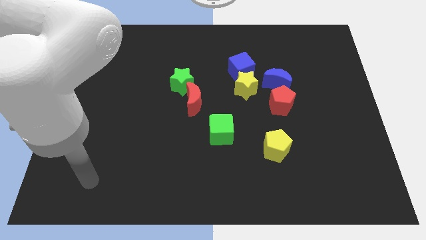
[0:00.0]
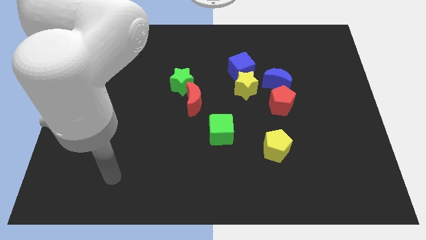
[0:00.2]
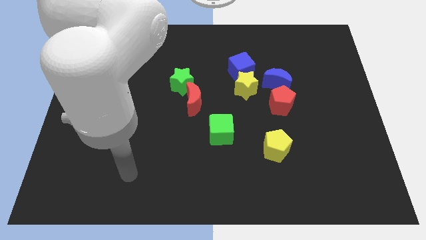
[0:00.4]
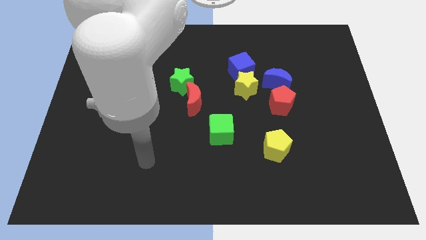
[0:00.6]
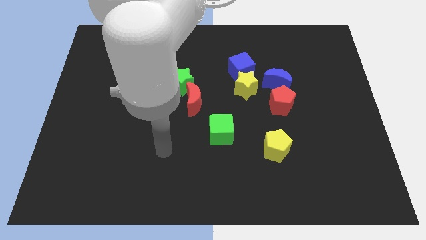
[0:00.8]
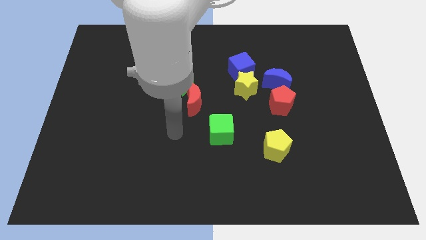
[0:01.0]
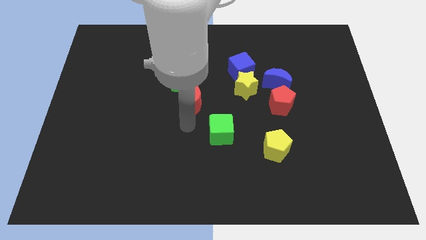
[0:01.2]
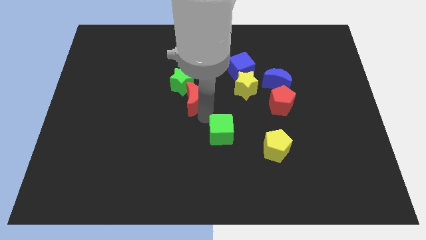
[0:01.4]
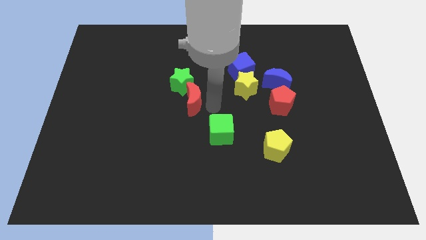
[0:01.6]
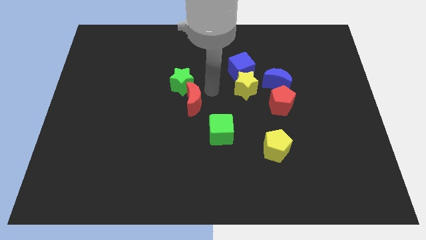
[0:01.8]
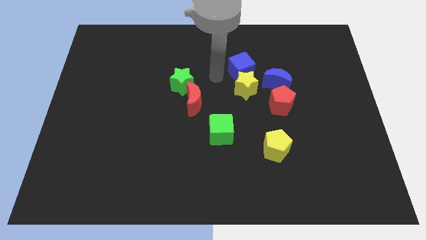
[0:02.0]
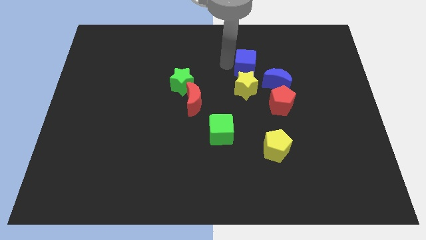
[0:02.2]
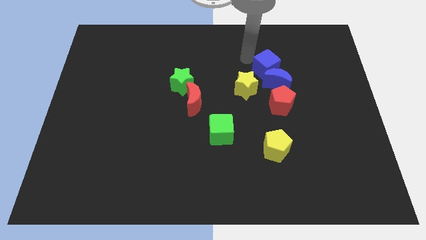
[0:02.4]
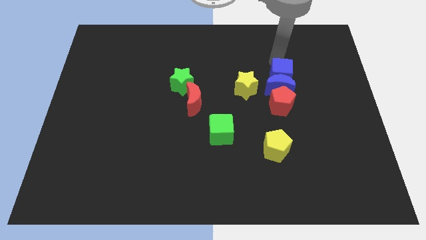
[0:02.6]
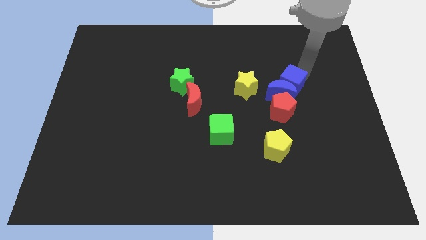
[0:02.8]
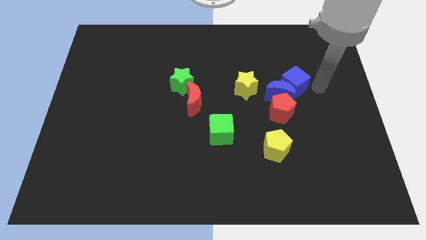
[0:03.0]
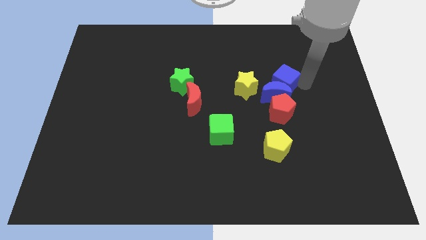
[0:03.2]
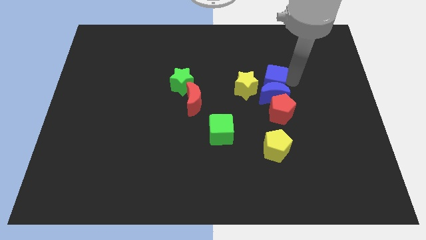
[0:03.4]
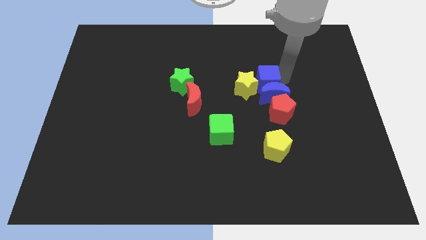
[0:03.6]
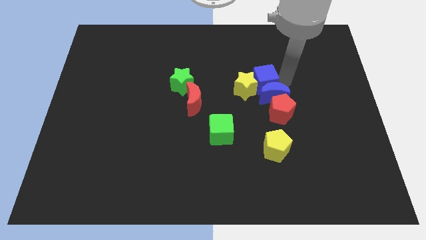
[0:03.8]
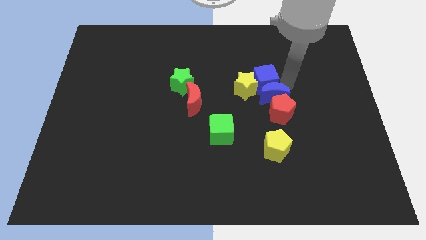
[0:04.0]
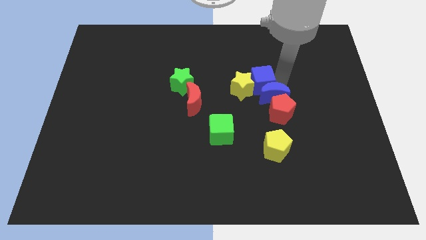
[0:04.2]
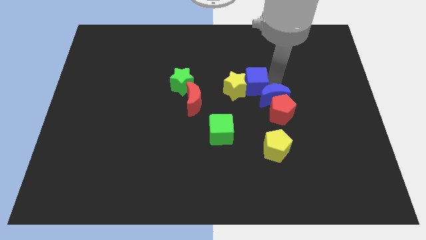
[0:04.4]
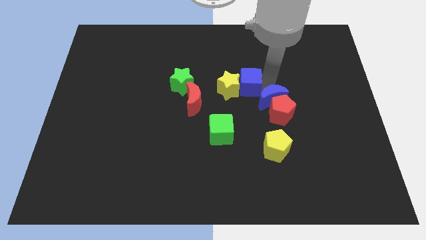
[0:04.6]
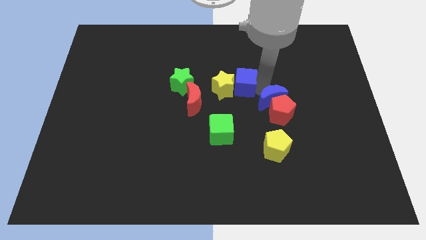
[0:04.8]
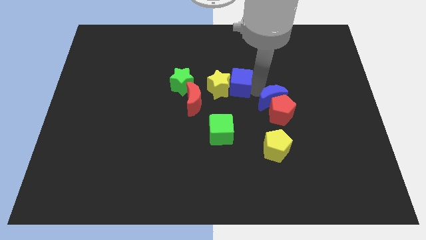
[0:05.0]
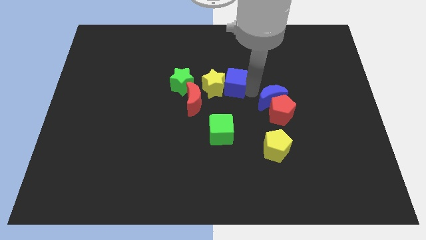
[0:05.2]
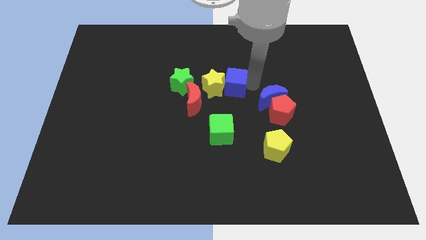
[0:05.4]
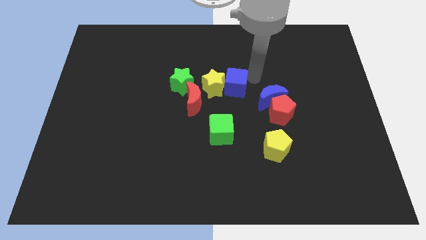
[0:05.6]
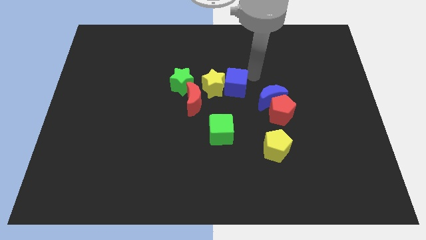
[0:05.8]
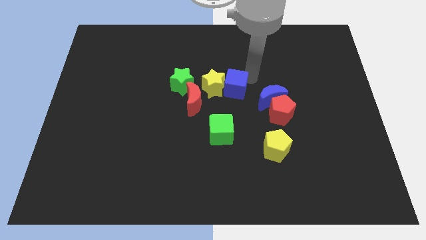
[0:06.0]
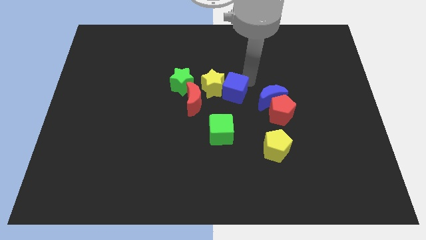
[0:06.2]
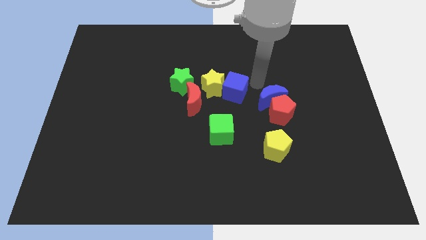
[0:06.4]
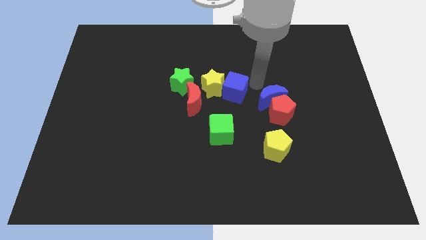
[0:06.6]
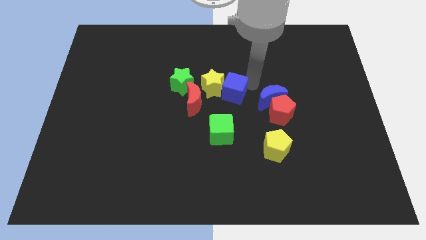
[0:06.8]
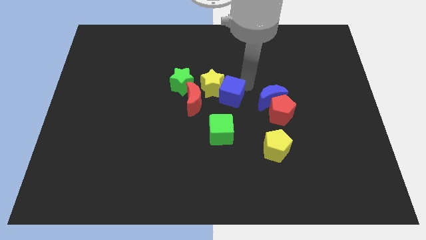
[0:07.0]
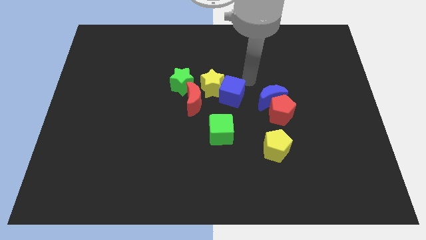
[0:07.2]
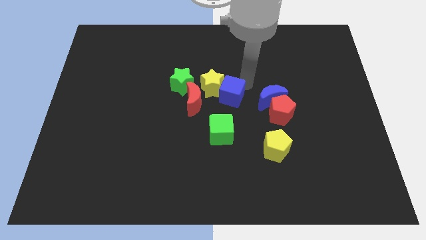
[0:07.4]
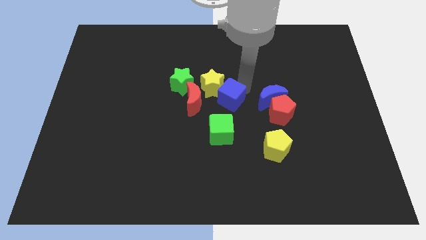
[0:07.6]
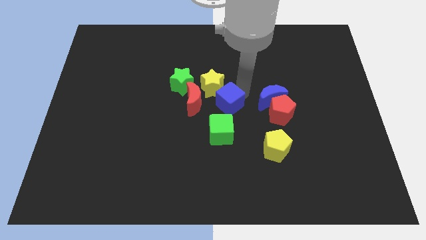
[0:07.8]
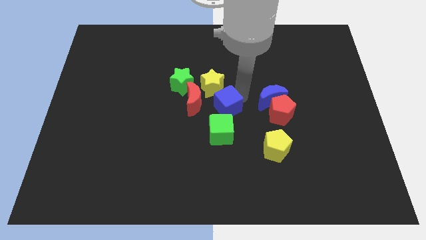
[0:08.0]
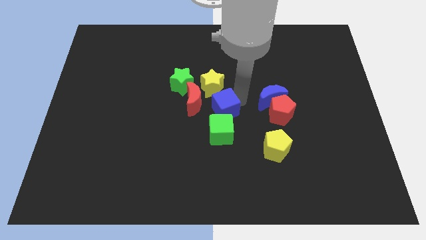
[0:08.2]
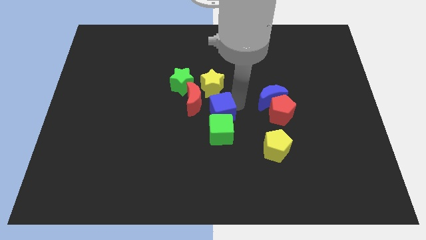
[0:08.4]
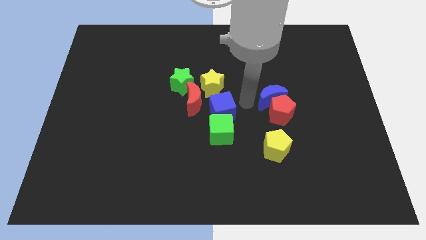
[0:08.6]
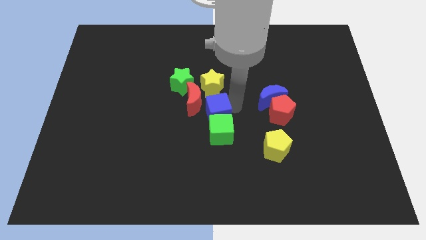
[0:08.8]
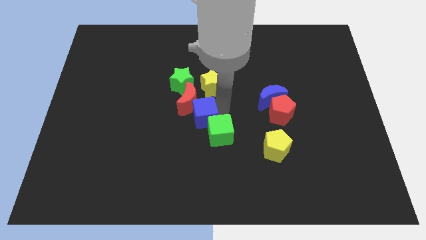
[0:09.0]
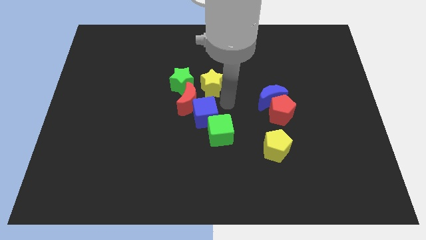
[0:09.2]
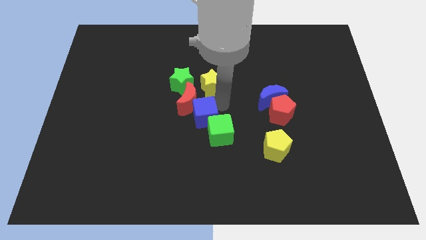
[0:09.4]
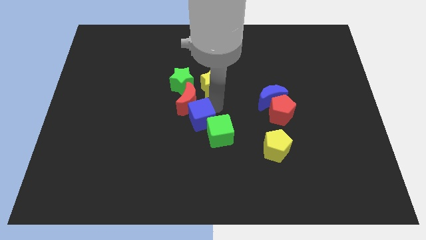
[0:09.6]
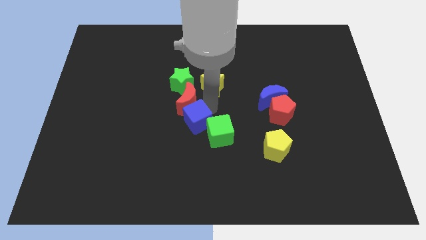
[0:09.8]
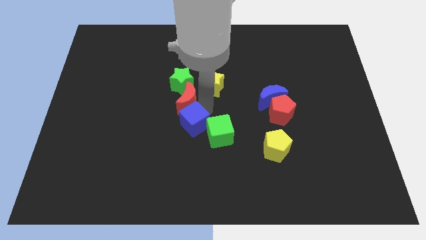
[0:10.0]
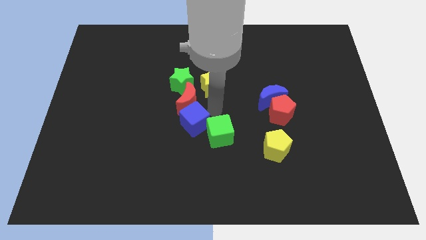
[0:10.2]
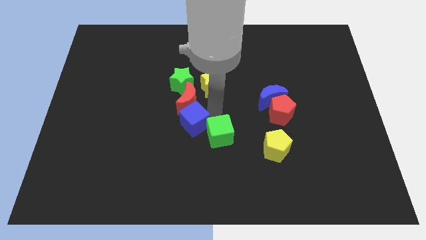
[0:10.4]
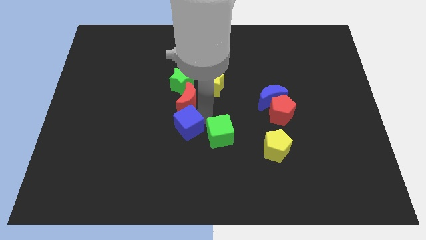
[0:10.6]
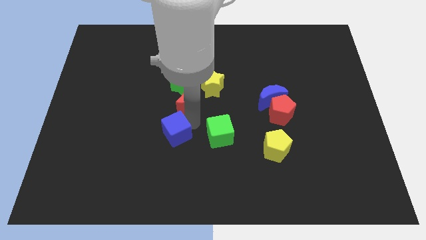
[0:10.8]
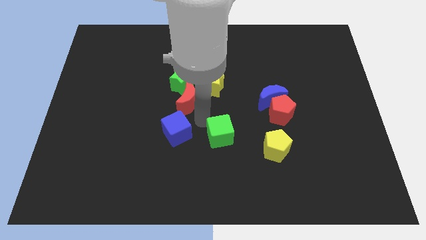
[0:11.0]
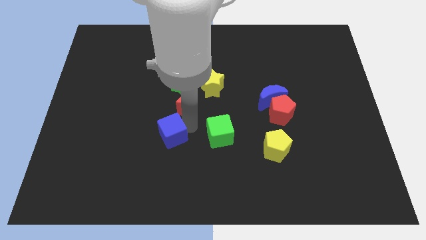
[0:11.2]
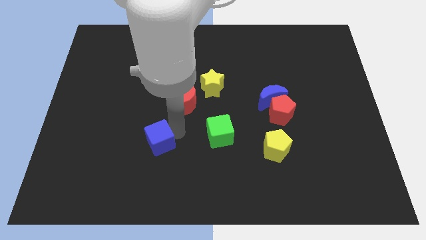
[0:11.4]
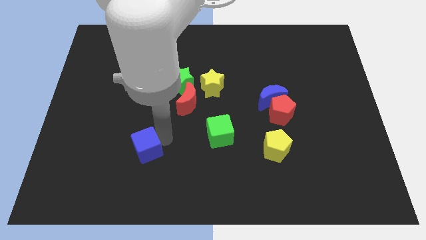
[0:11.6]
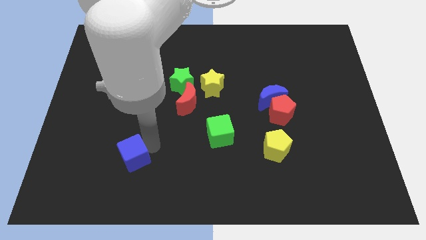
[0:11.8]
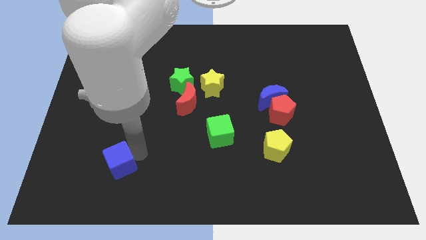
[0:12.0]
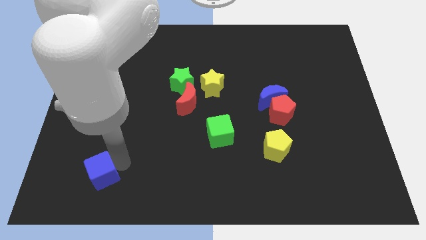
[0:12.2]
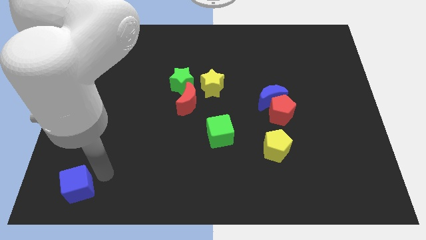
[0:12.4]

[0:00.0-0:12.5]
push the blue cube to the bottom left of the board
